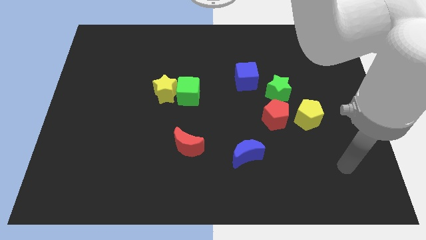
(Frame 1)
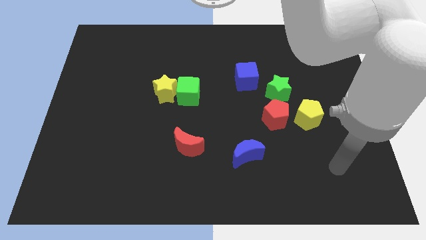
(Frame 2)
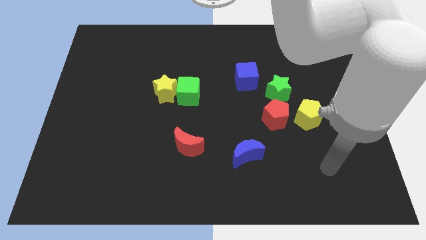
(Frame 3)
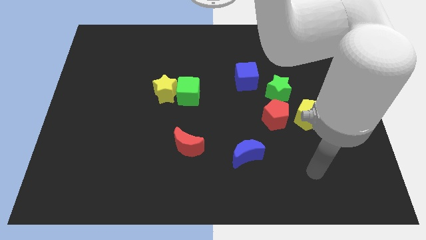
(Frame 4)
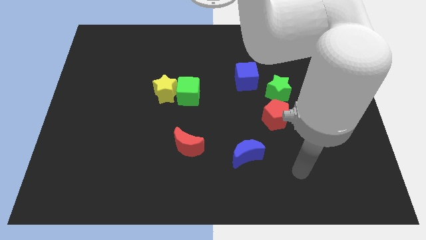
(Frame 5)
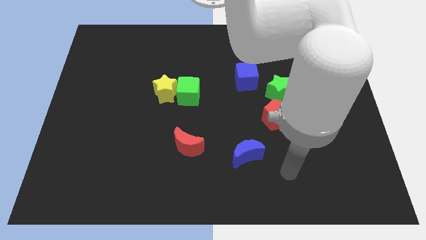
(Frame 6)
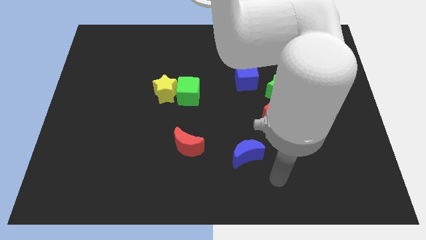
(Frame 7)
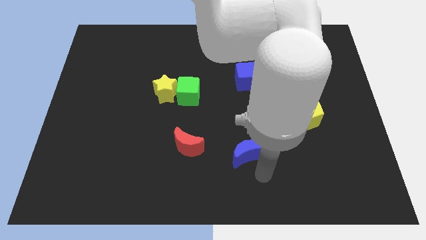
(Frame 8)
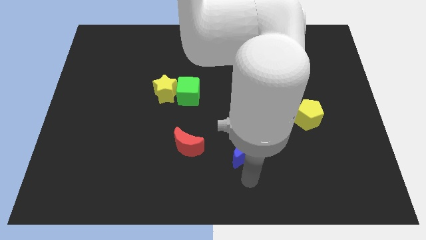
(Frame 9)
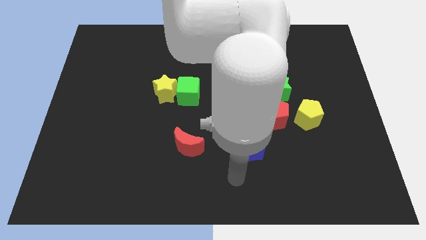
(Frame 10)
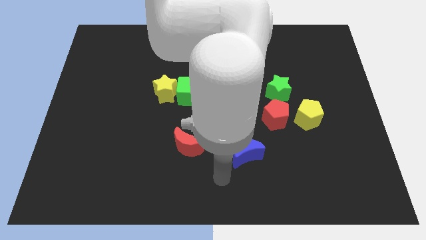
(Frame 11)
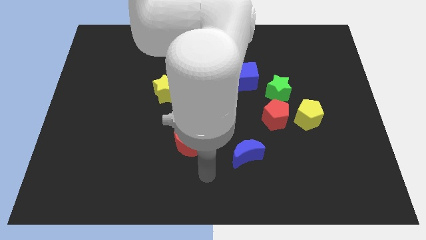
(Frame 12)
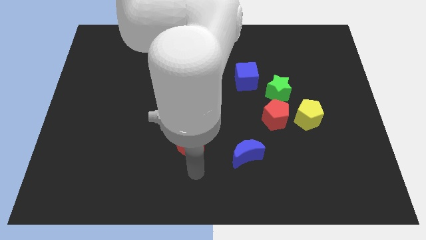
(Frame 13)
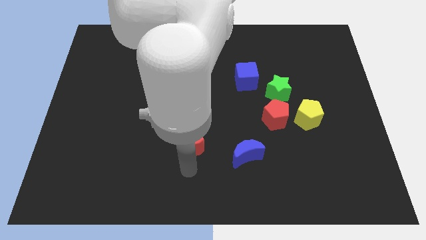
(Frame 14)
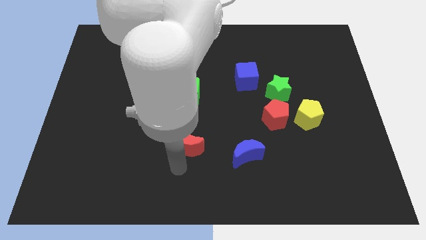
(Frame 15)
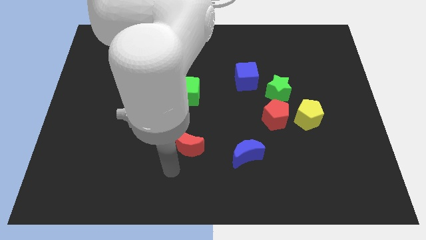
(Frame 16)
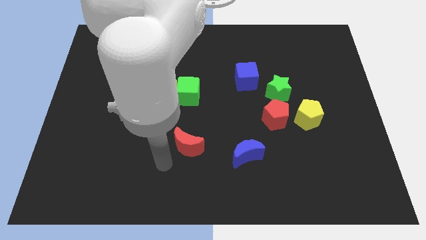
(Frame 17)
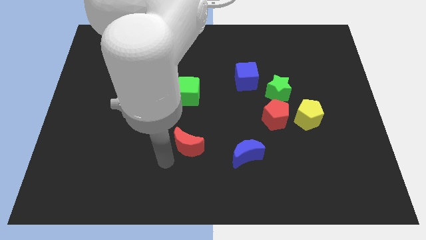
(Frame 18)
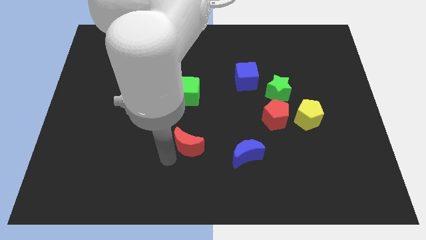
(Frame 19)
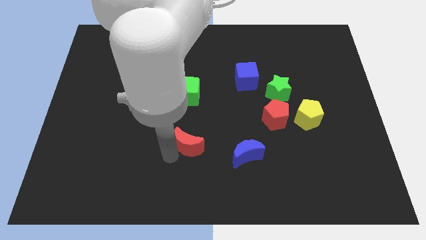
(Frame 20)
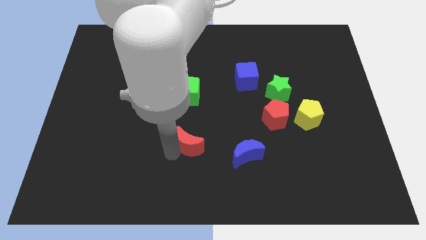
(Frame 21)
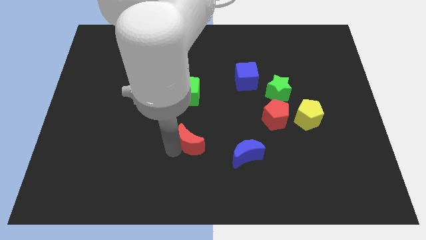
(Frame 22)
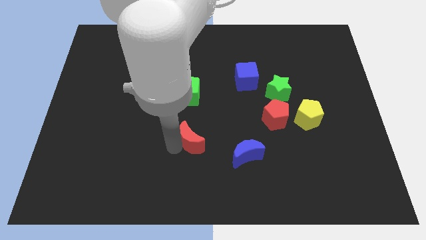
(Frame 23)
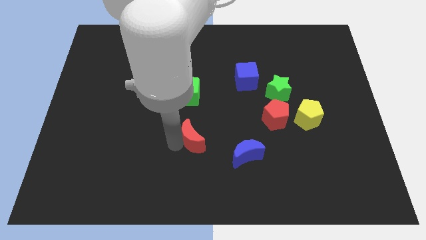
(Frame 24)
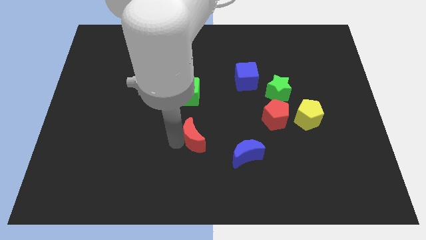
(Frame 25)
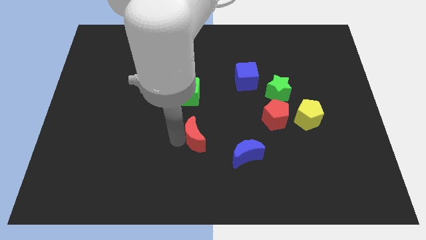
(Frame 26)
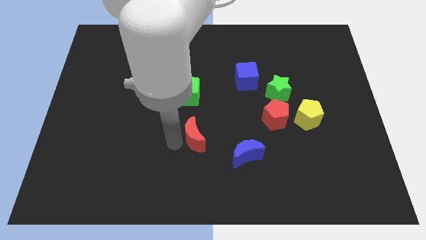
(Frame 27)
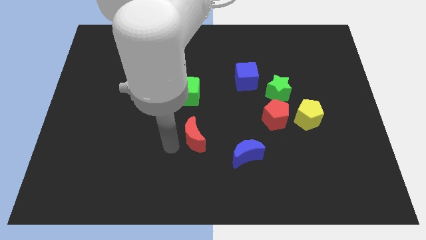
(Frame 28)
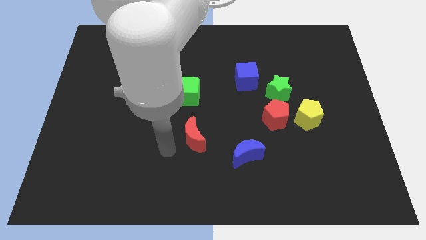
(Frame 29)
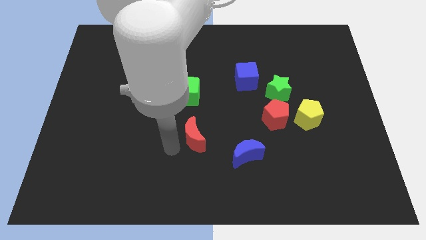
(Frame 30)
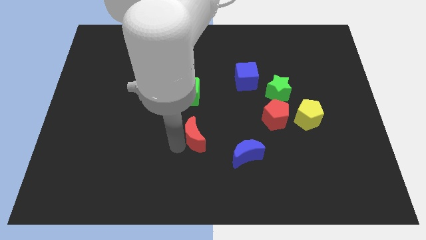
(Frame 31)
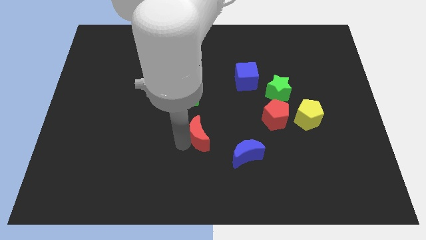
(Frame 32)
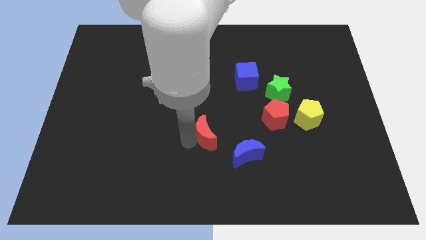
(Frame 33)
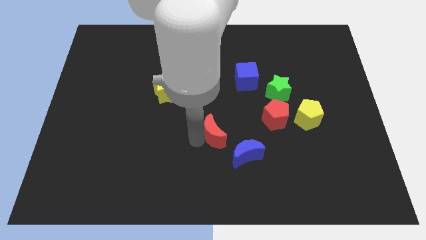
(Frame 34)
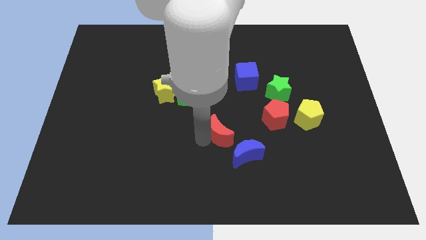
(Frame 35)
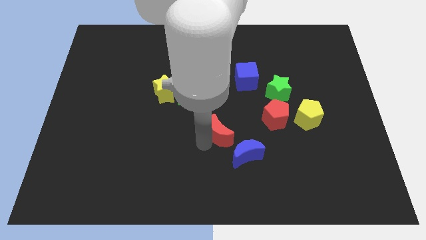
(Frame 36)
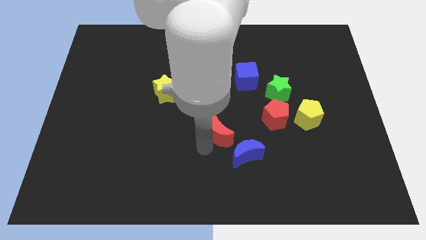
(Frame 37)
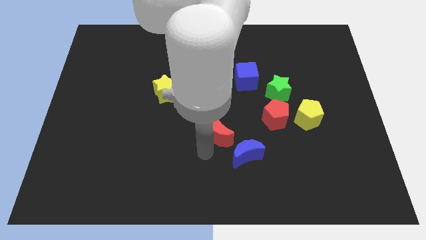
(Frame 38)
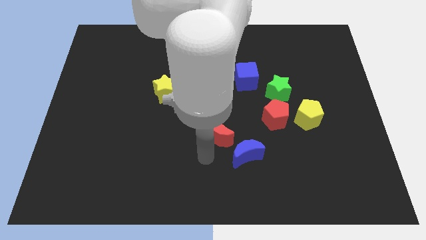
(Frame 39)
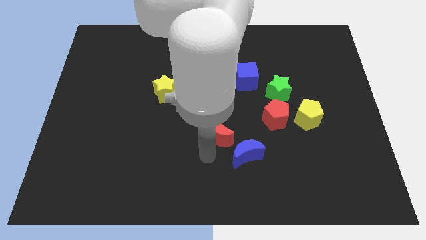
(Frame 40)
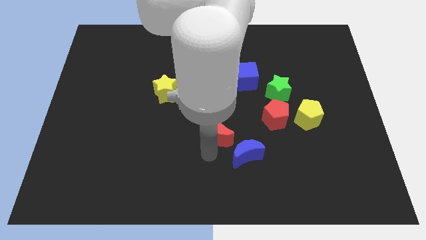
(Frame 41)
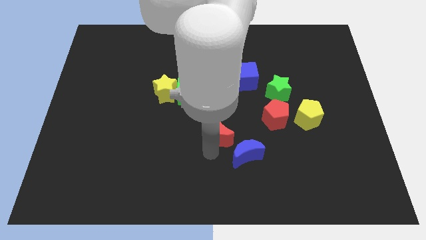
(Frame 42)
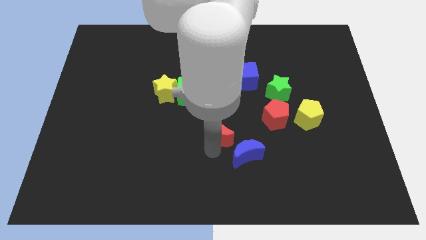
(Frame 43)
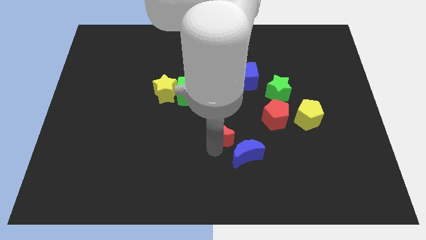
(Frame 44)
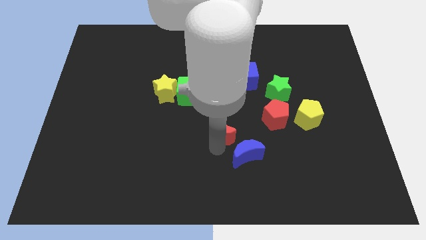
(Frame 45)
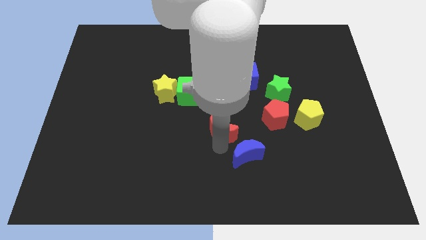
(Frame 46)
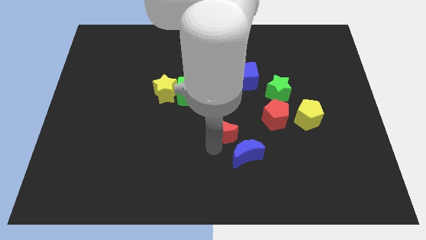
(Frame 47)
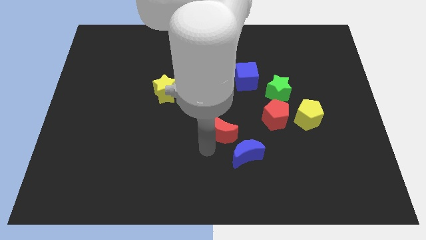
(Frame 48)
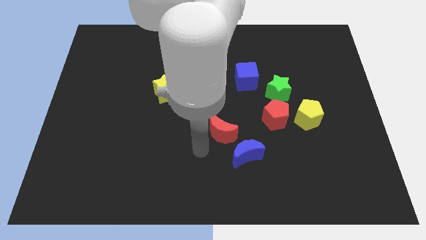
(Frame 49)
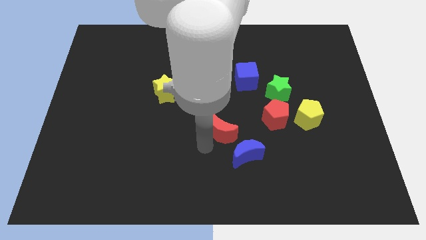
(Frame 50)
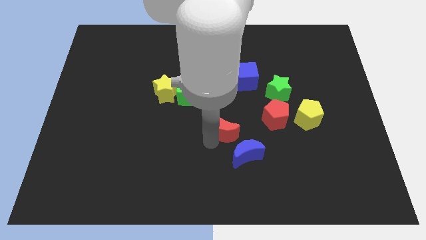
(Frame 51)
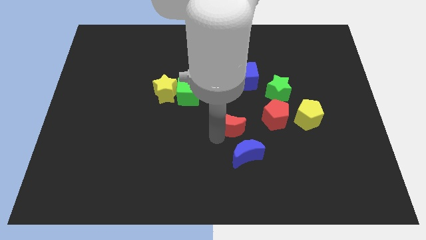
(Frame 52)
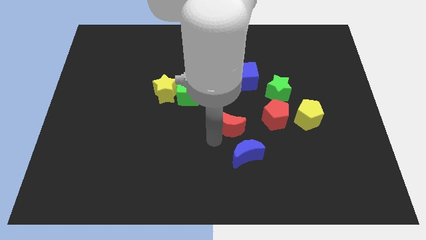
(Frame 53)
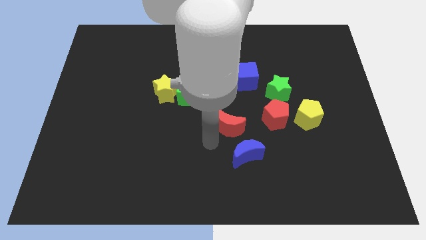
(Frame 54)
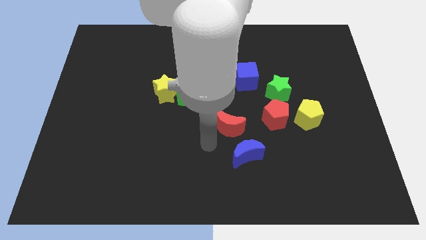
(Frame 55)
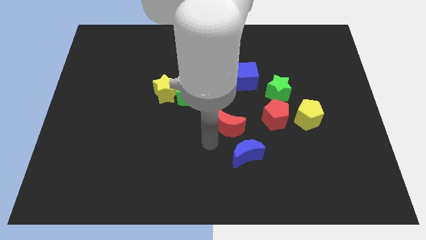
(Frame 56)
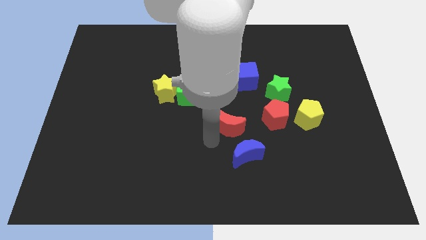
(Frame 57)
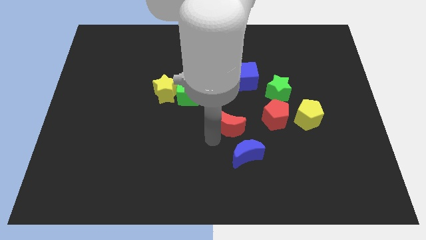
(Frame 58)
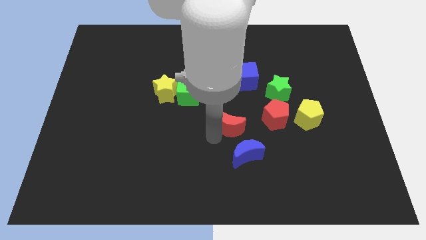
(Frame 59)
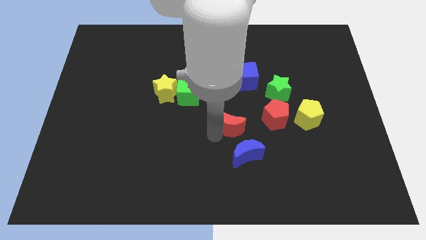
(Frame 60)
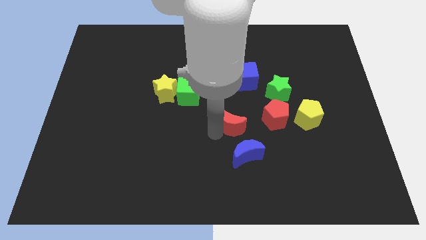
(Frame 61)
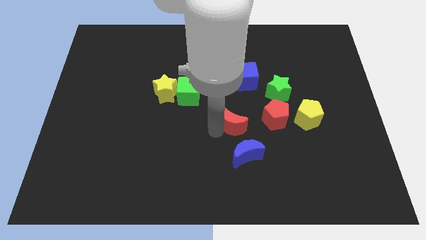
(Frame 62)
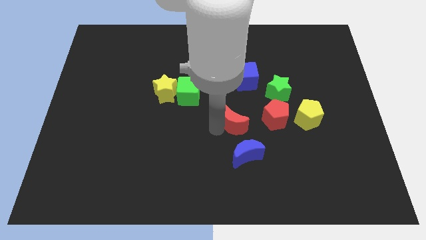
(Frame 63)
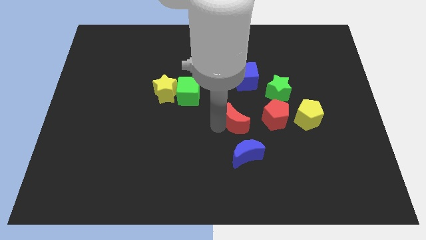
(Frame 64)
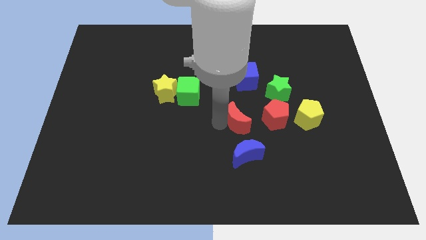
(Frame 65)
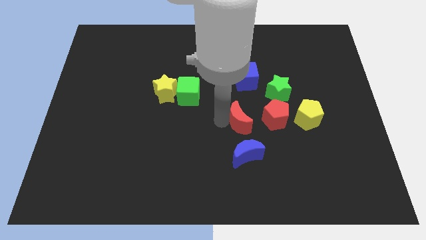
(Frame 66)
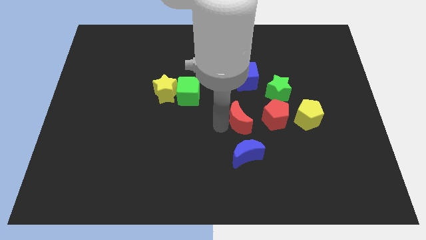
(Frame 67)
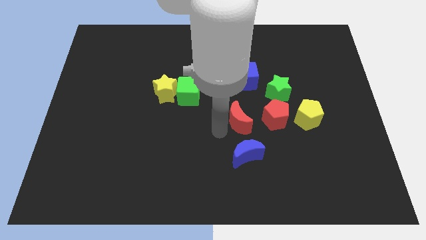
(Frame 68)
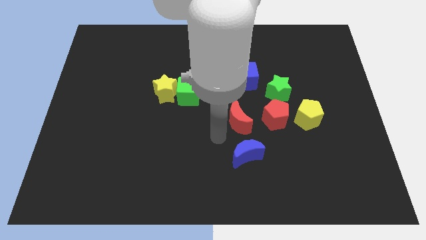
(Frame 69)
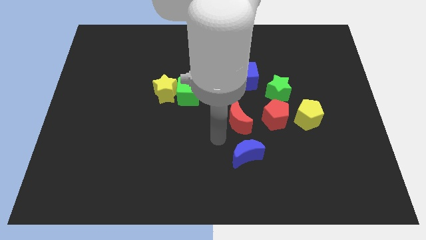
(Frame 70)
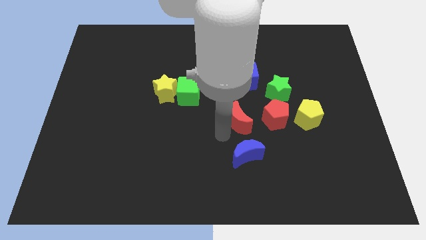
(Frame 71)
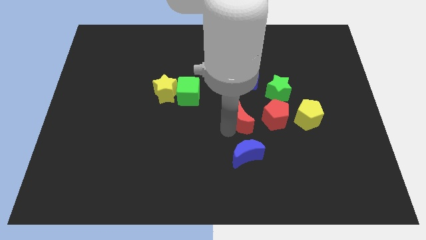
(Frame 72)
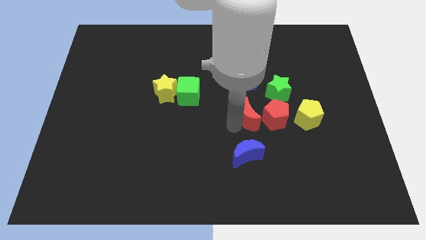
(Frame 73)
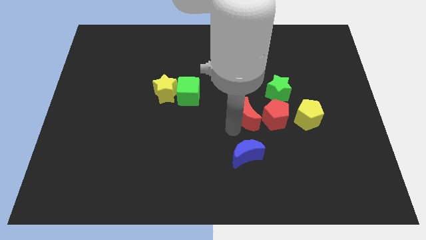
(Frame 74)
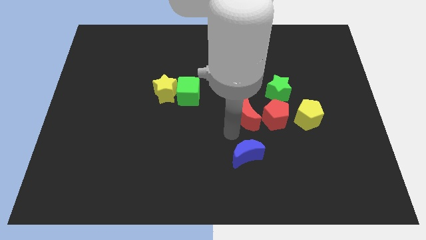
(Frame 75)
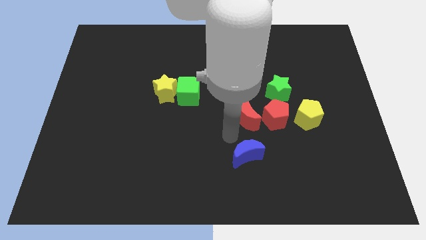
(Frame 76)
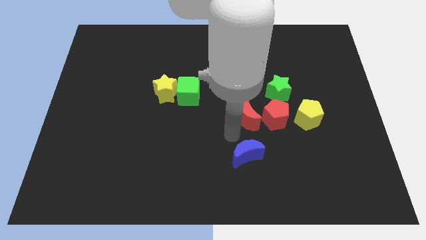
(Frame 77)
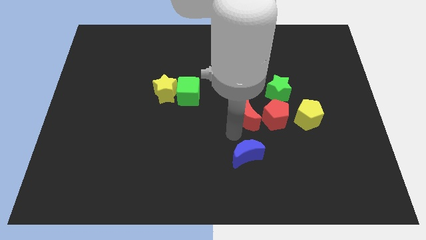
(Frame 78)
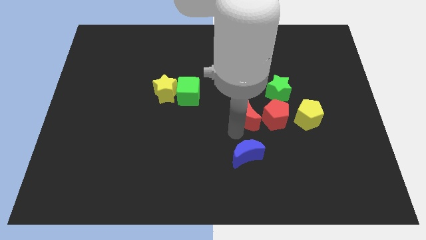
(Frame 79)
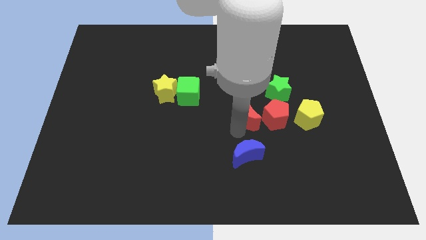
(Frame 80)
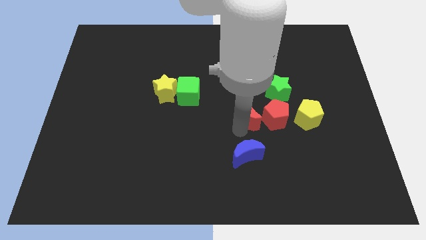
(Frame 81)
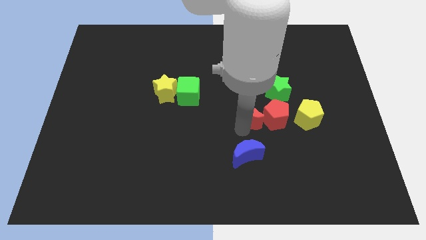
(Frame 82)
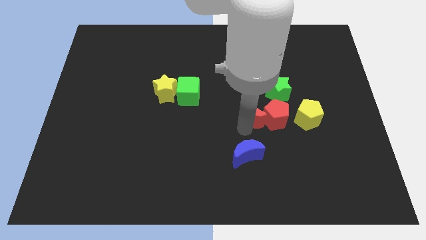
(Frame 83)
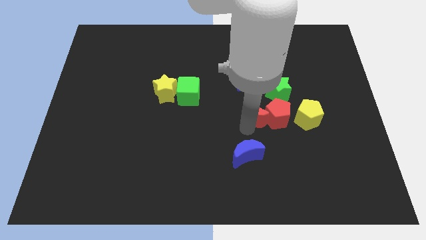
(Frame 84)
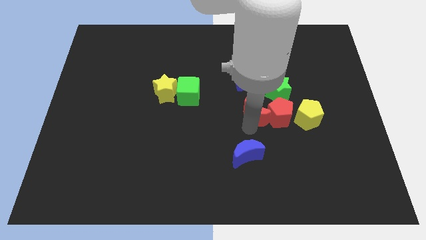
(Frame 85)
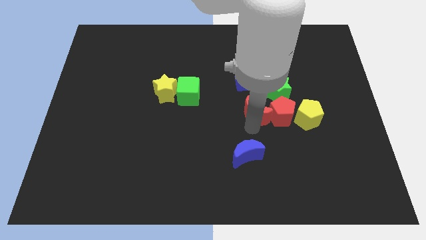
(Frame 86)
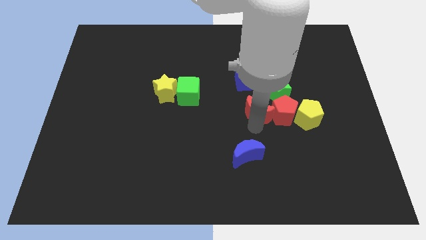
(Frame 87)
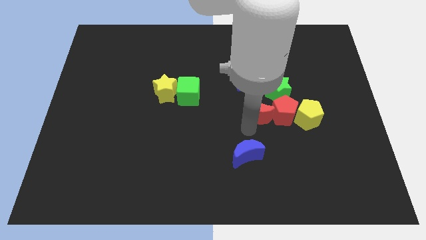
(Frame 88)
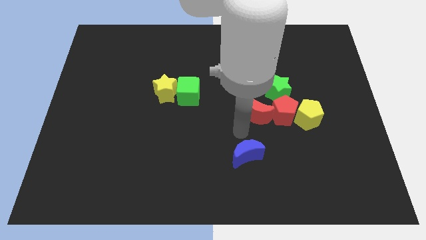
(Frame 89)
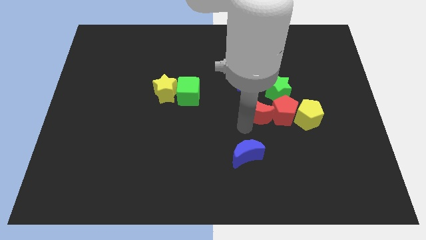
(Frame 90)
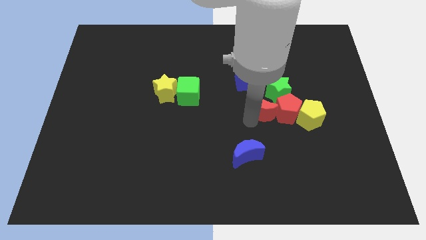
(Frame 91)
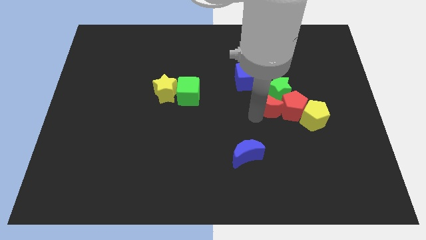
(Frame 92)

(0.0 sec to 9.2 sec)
move the red moon next to the green star
